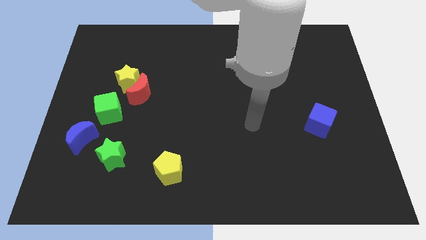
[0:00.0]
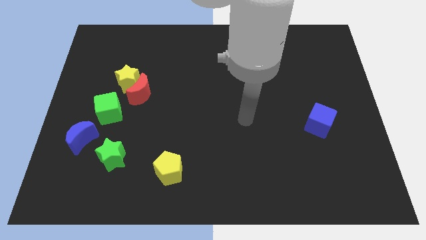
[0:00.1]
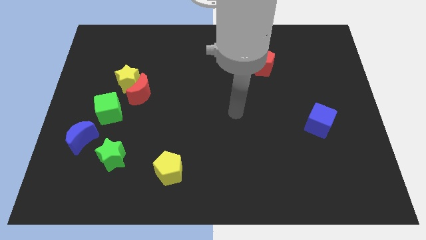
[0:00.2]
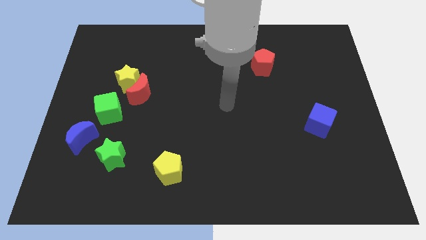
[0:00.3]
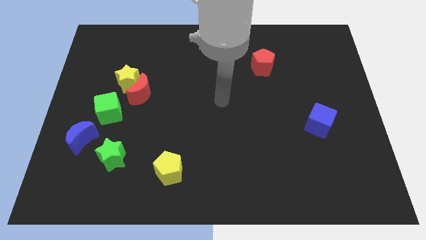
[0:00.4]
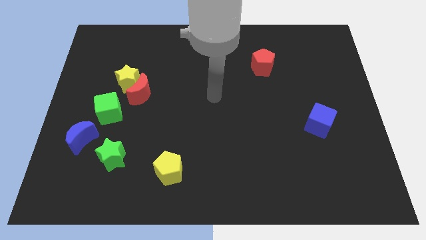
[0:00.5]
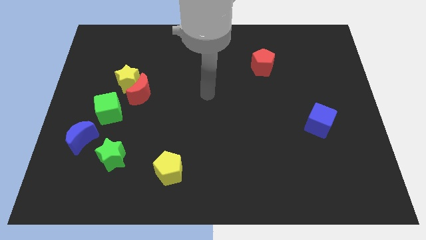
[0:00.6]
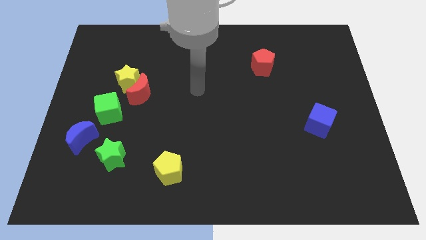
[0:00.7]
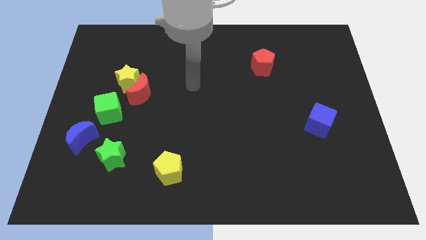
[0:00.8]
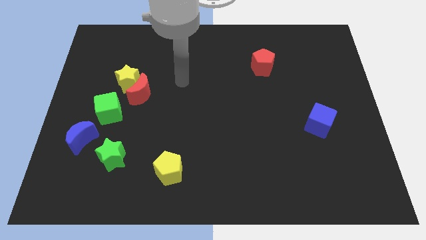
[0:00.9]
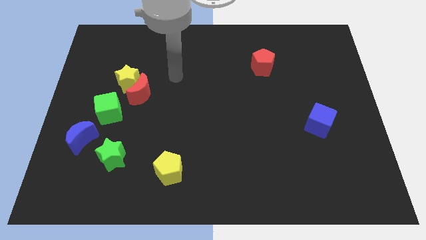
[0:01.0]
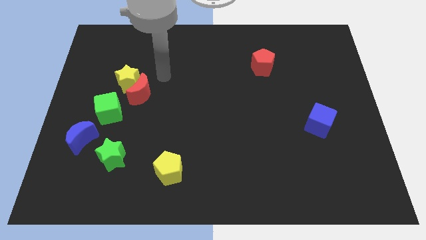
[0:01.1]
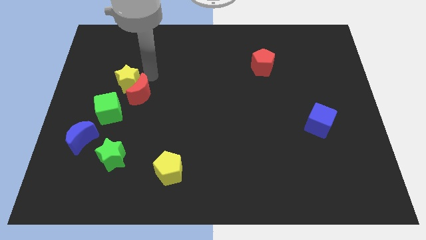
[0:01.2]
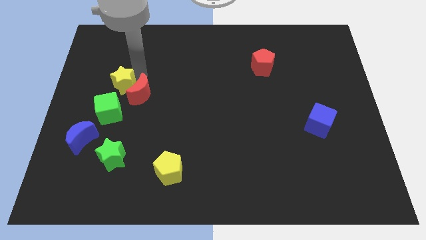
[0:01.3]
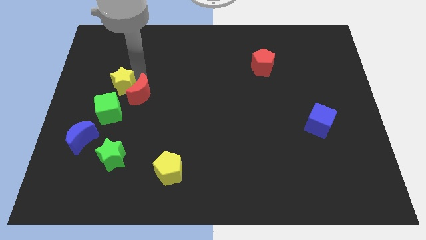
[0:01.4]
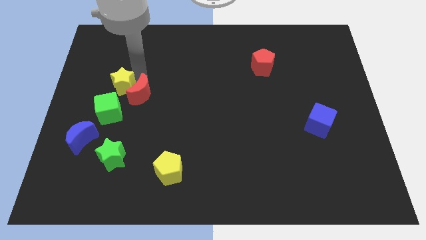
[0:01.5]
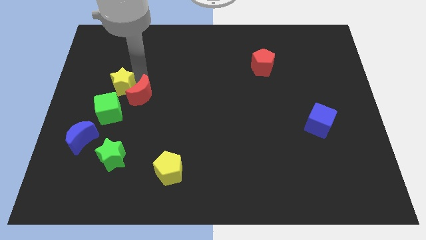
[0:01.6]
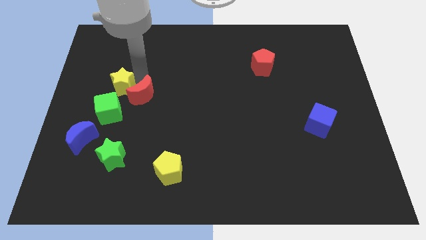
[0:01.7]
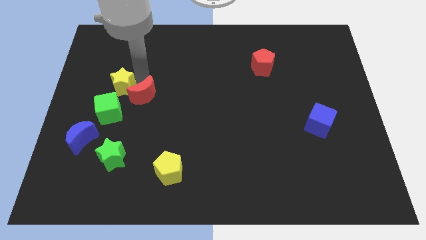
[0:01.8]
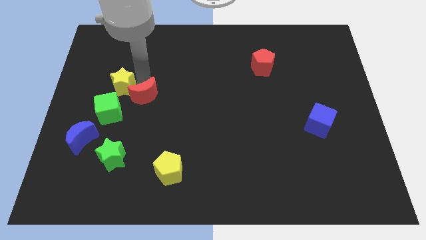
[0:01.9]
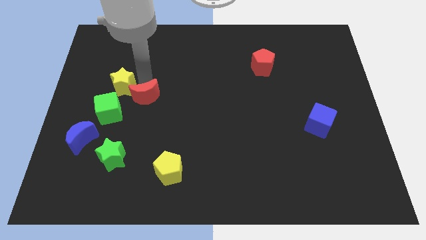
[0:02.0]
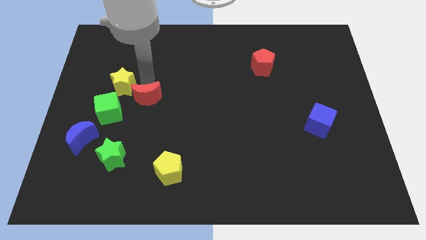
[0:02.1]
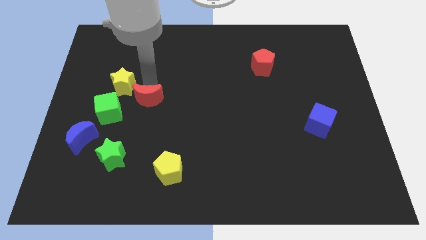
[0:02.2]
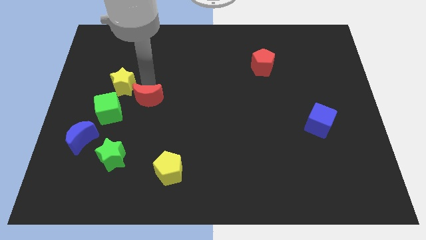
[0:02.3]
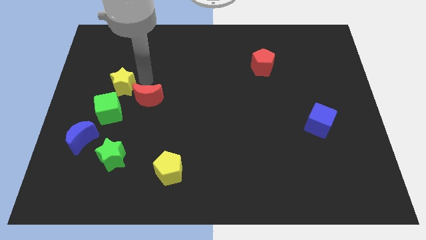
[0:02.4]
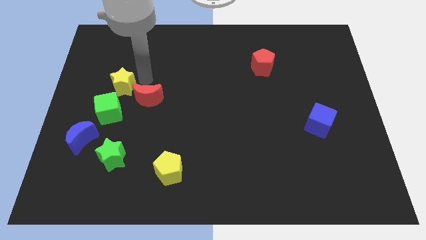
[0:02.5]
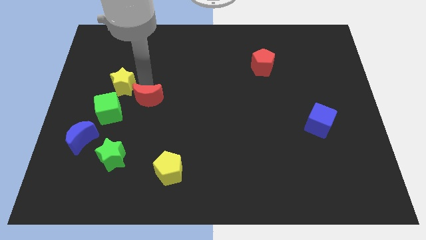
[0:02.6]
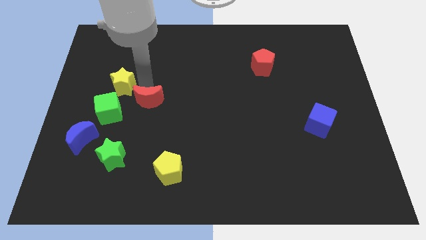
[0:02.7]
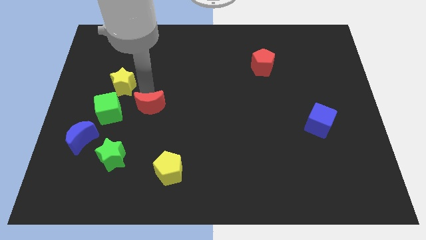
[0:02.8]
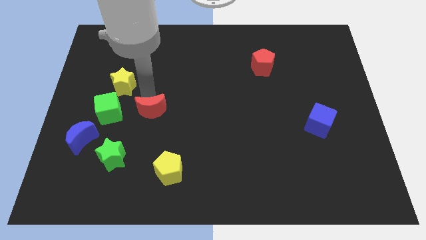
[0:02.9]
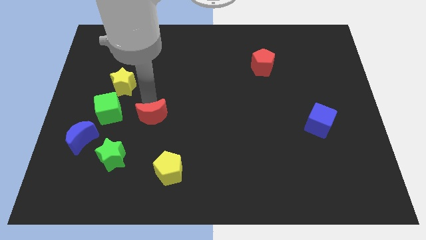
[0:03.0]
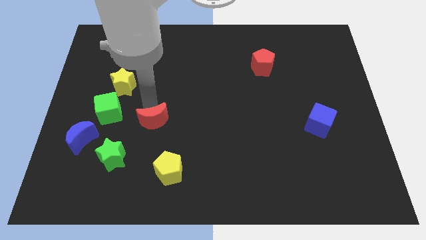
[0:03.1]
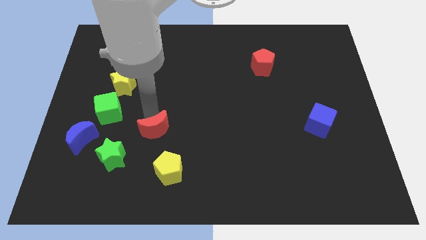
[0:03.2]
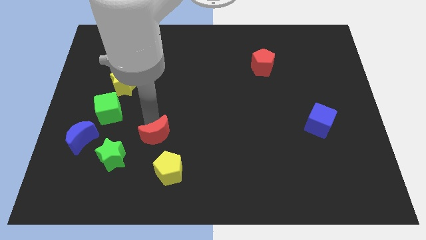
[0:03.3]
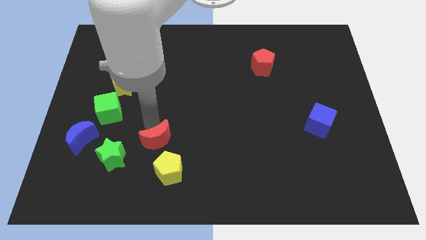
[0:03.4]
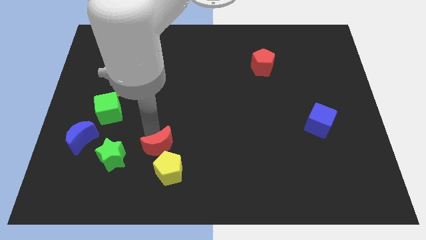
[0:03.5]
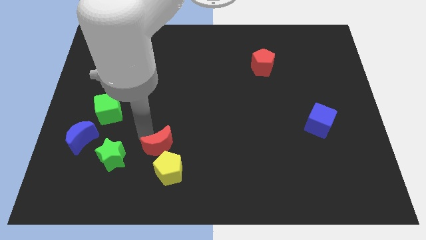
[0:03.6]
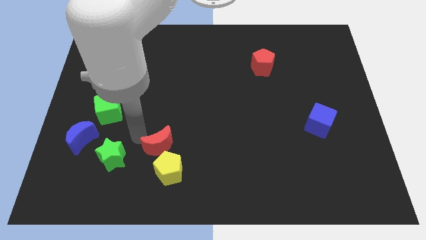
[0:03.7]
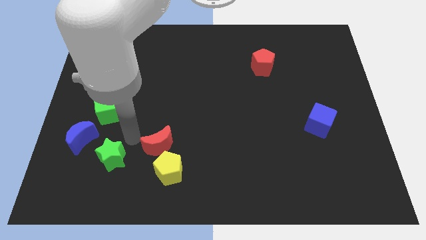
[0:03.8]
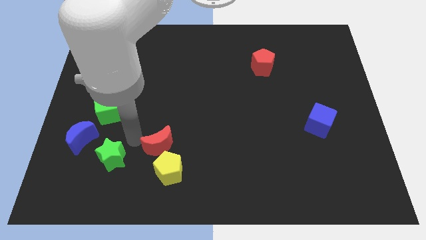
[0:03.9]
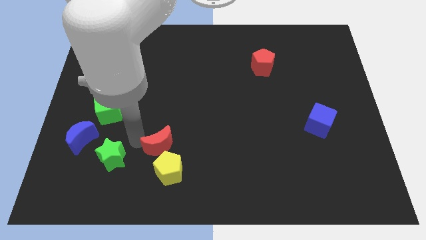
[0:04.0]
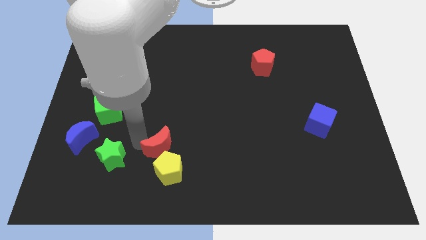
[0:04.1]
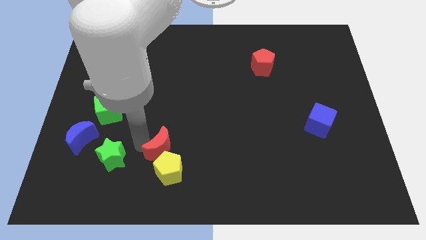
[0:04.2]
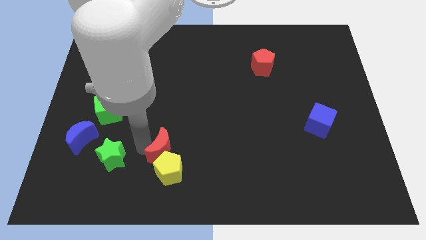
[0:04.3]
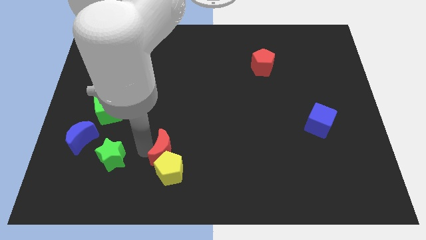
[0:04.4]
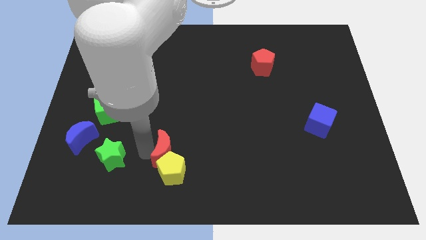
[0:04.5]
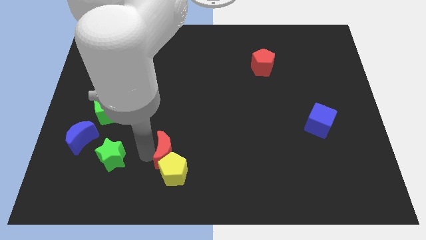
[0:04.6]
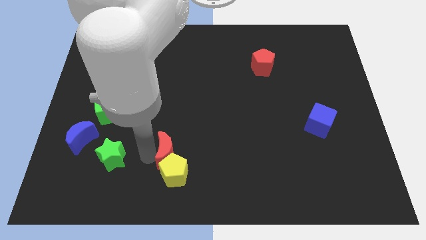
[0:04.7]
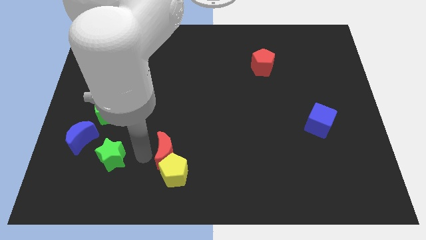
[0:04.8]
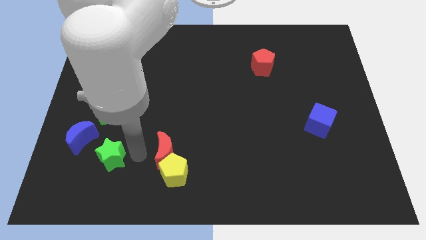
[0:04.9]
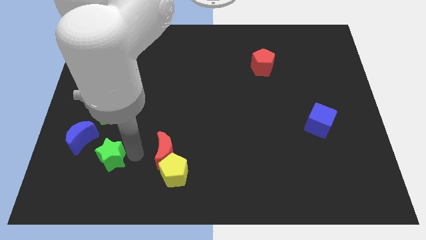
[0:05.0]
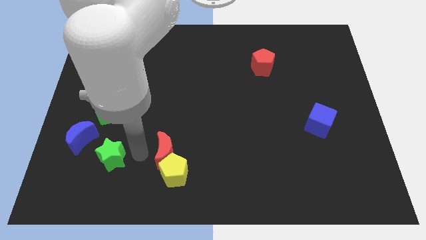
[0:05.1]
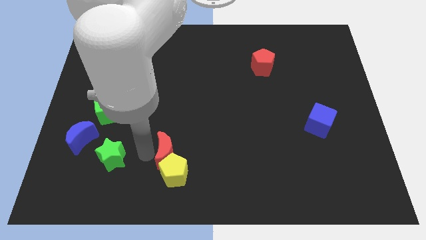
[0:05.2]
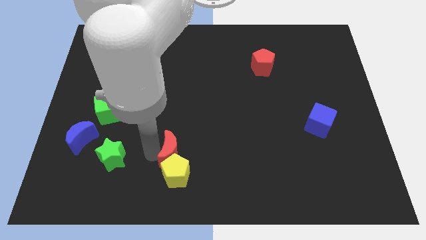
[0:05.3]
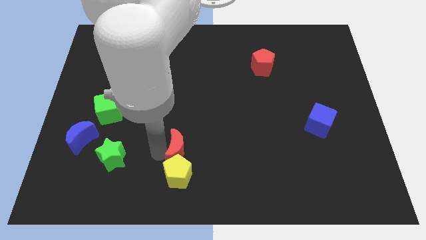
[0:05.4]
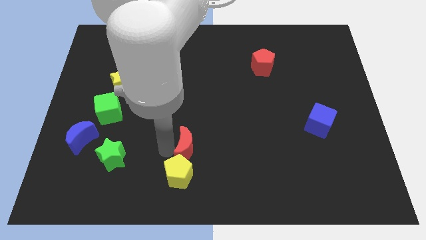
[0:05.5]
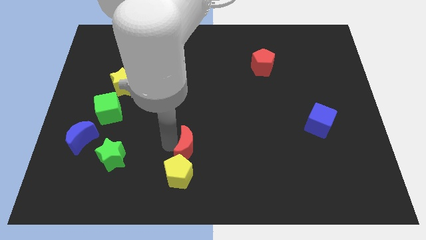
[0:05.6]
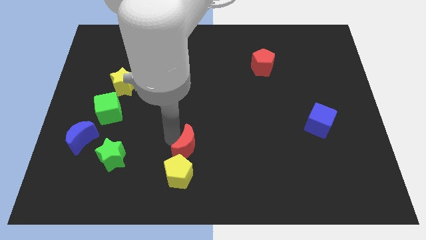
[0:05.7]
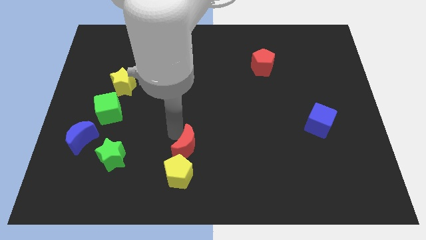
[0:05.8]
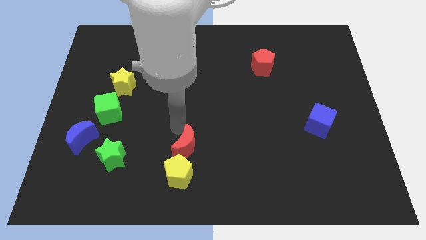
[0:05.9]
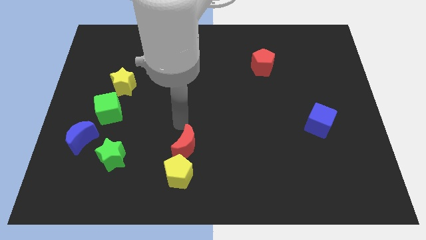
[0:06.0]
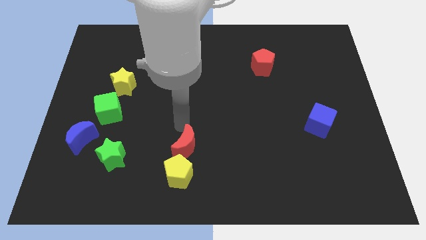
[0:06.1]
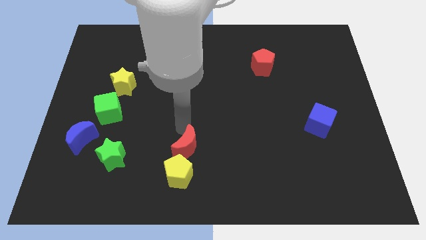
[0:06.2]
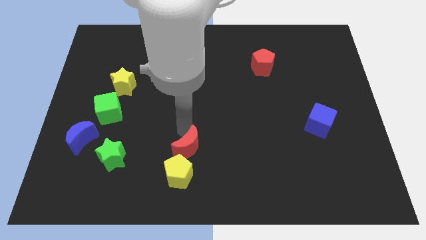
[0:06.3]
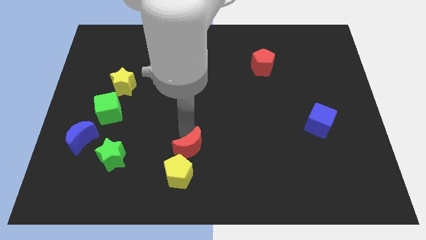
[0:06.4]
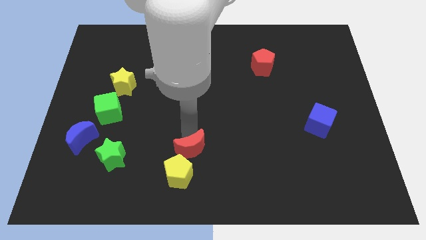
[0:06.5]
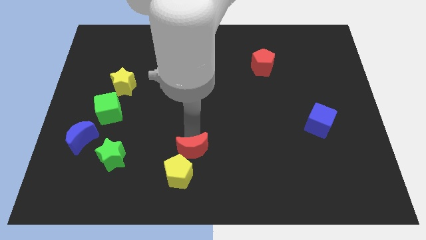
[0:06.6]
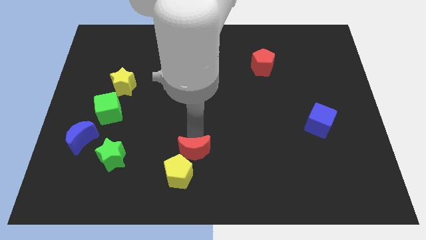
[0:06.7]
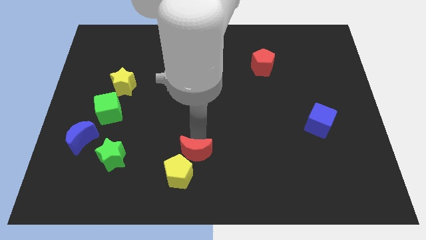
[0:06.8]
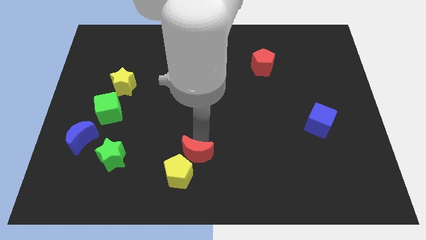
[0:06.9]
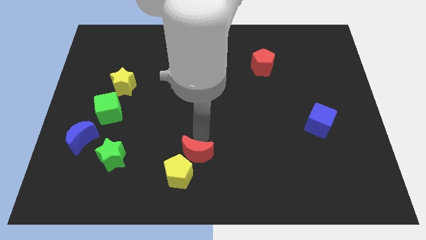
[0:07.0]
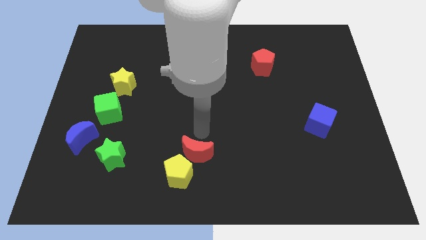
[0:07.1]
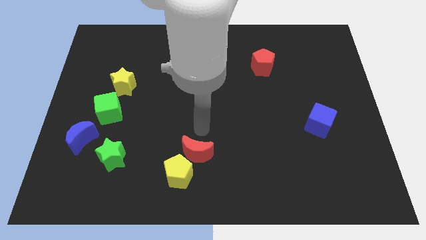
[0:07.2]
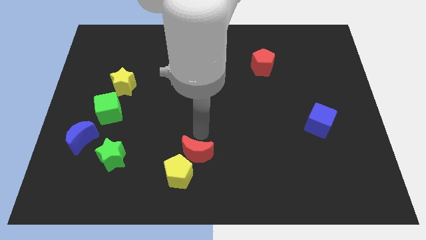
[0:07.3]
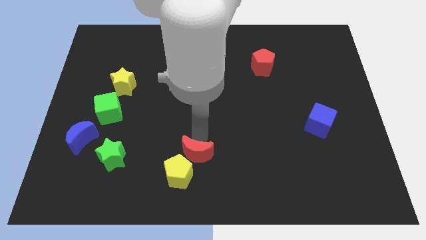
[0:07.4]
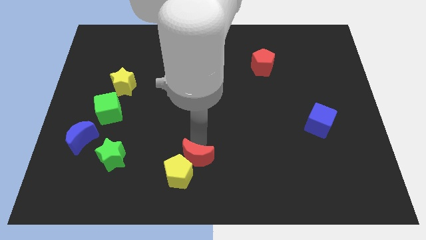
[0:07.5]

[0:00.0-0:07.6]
put the red moon to the bottom
